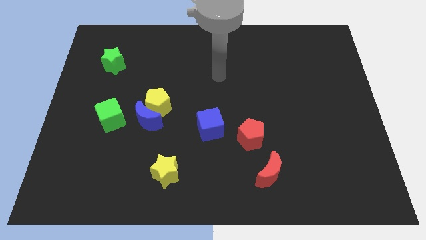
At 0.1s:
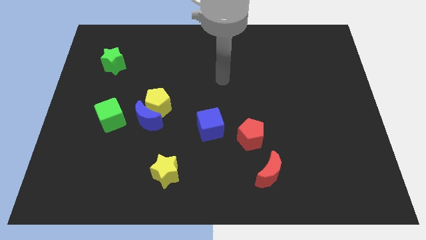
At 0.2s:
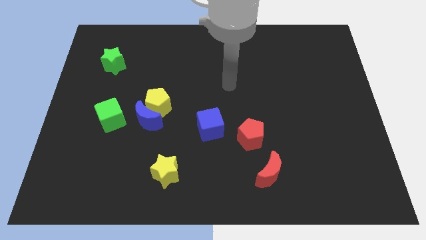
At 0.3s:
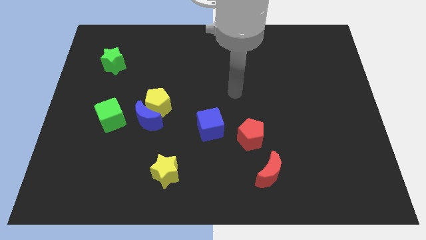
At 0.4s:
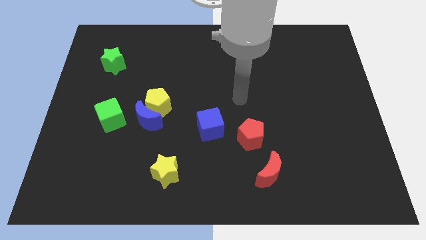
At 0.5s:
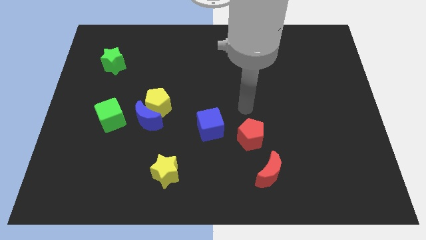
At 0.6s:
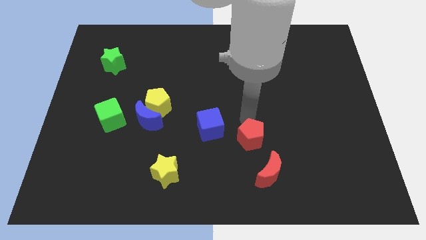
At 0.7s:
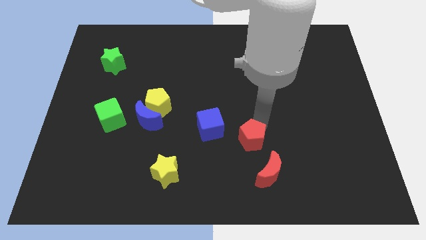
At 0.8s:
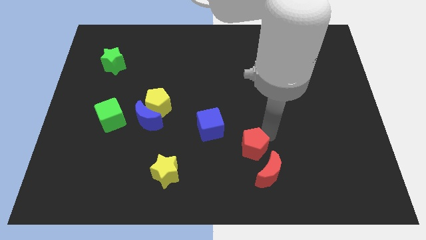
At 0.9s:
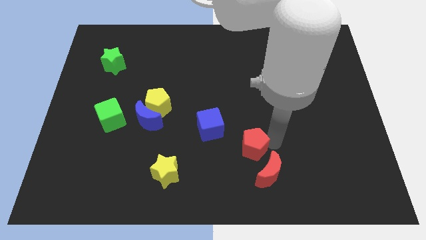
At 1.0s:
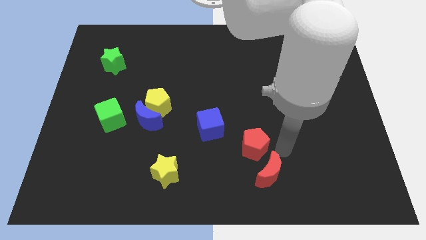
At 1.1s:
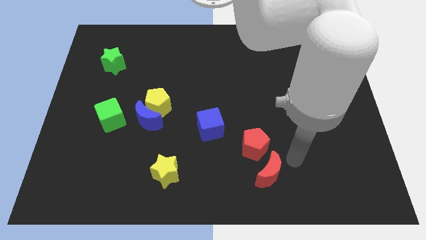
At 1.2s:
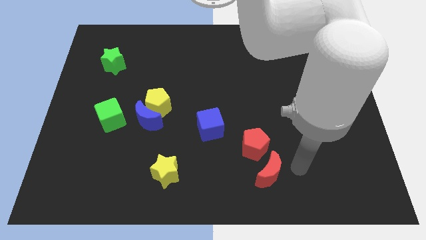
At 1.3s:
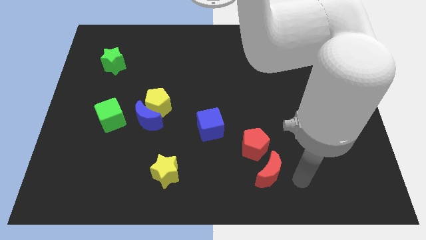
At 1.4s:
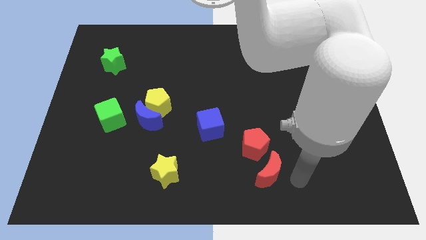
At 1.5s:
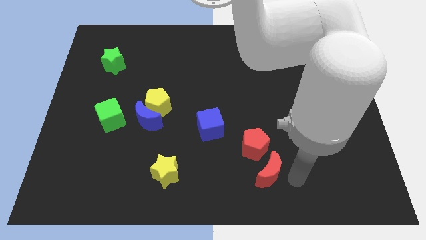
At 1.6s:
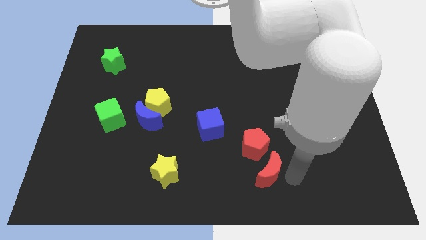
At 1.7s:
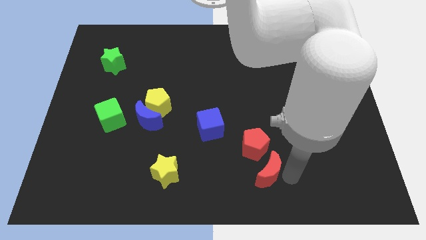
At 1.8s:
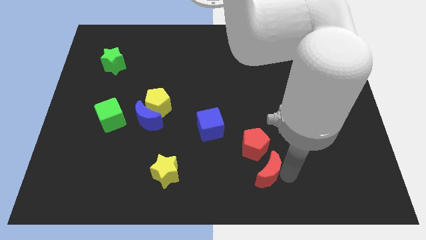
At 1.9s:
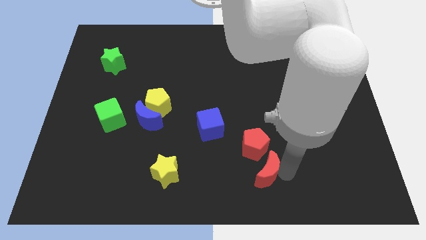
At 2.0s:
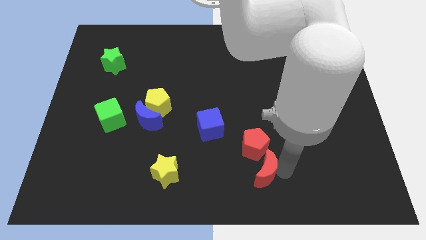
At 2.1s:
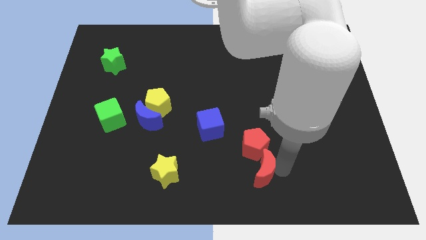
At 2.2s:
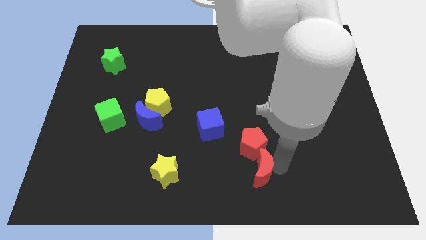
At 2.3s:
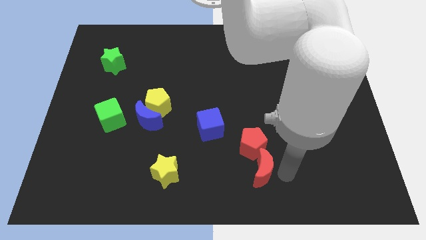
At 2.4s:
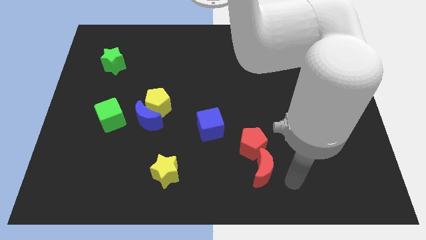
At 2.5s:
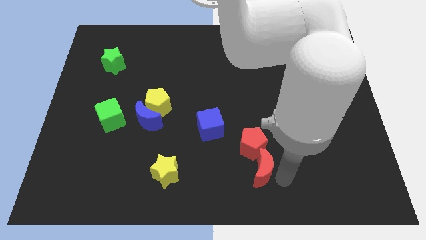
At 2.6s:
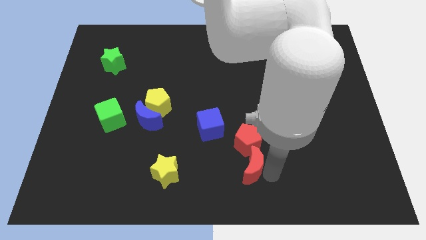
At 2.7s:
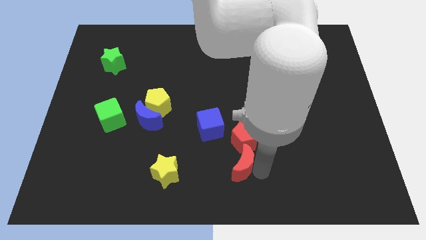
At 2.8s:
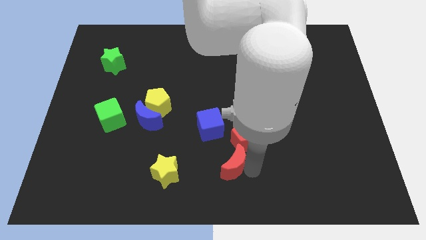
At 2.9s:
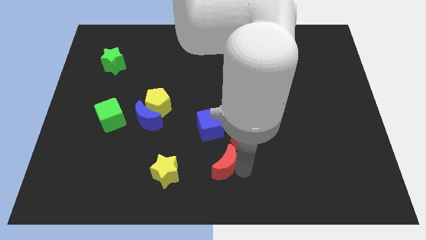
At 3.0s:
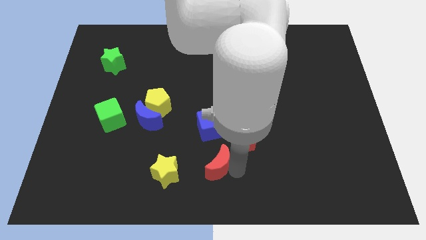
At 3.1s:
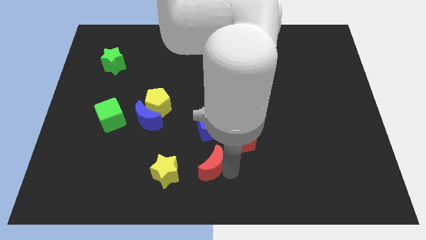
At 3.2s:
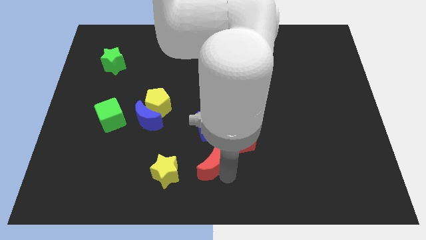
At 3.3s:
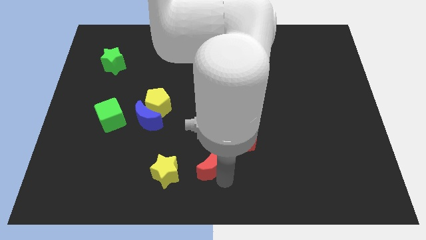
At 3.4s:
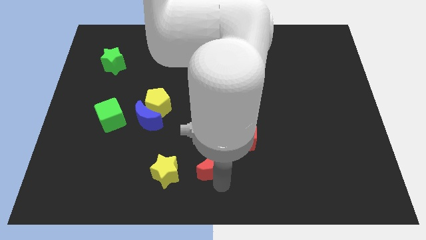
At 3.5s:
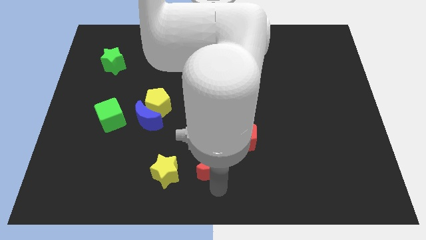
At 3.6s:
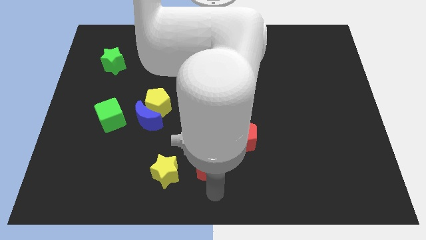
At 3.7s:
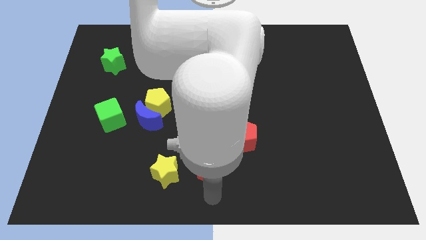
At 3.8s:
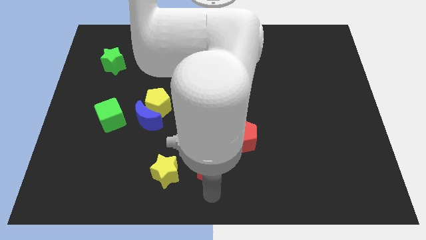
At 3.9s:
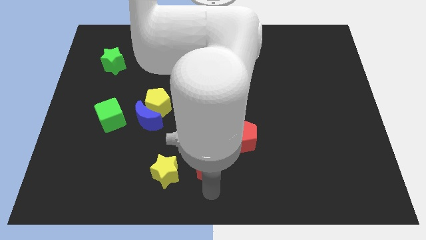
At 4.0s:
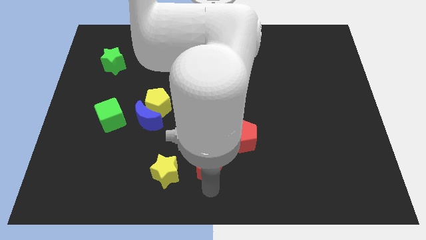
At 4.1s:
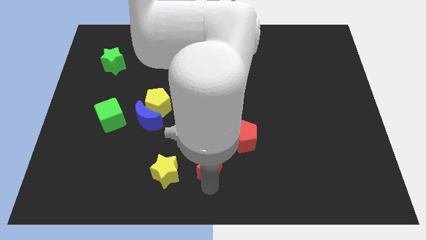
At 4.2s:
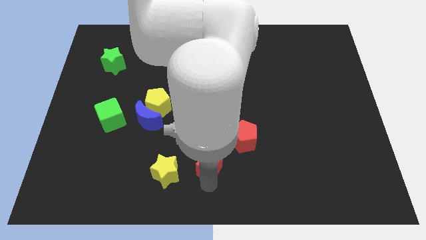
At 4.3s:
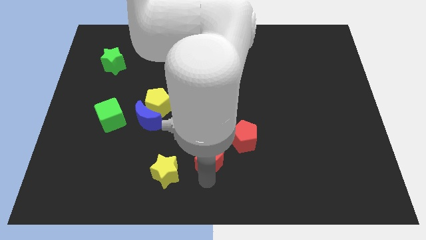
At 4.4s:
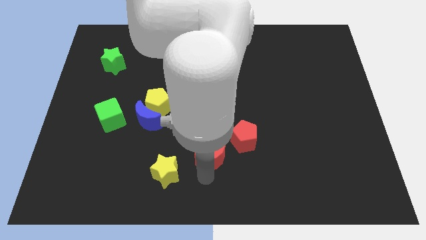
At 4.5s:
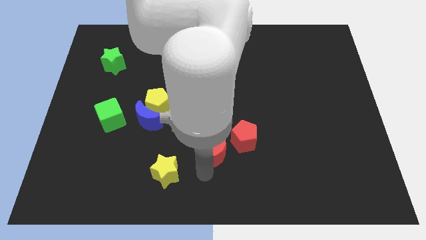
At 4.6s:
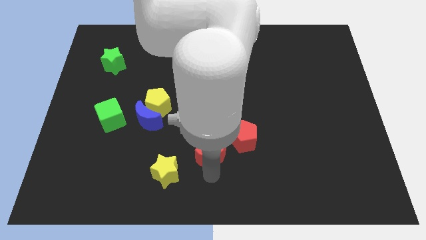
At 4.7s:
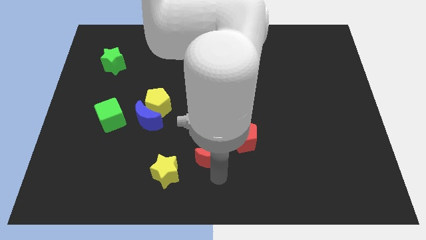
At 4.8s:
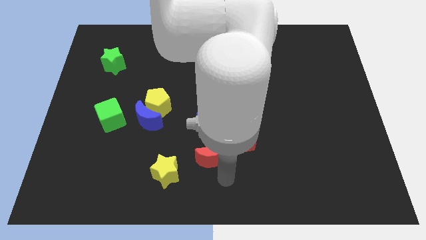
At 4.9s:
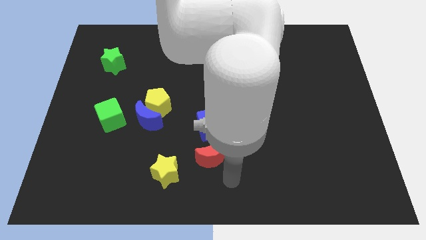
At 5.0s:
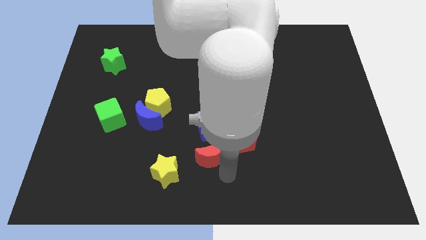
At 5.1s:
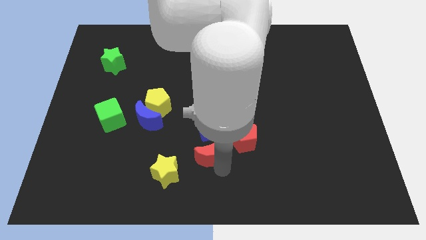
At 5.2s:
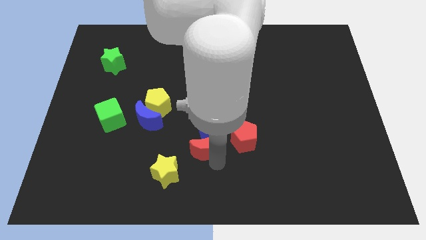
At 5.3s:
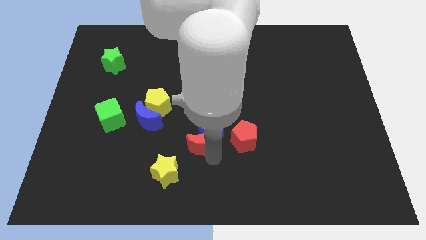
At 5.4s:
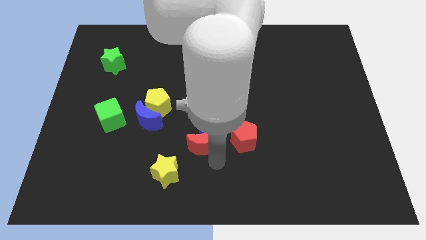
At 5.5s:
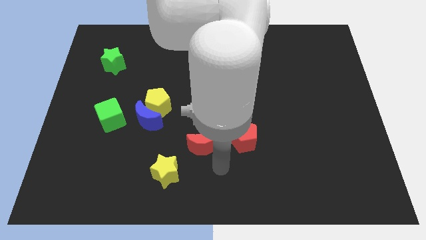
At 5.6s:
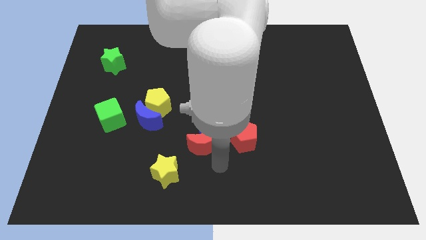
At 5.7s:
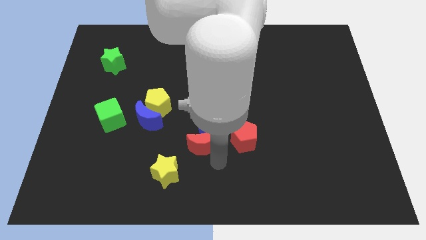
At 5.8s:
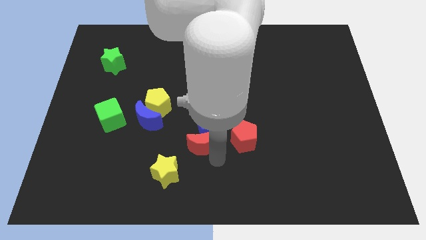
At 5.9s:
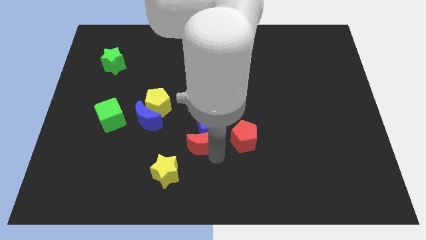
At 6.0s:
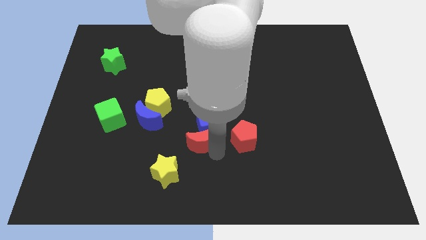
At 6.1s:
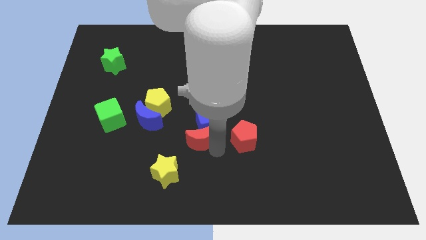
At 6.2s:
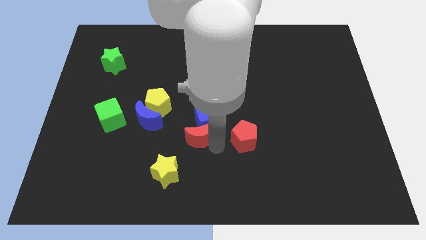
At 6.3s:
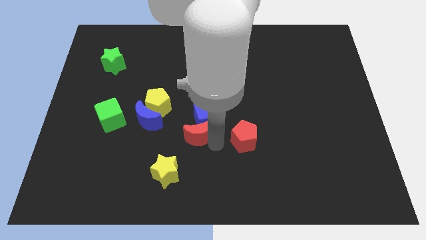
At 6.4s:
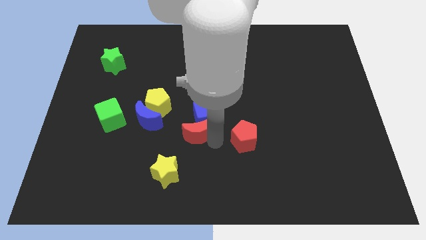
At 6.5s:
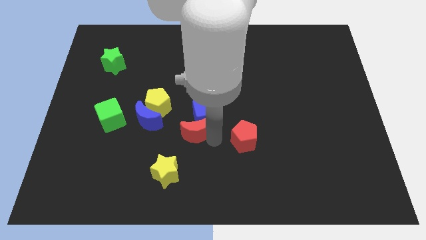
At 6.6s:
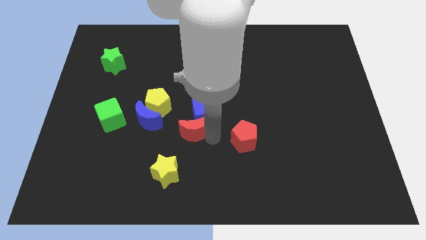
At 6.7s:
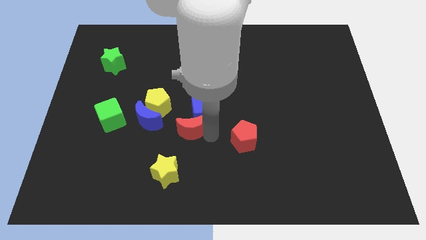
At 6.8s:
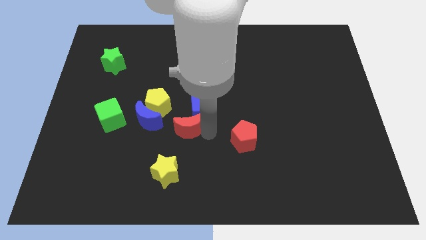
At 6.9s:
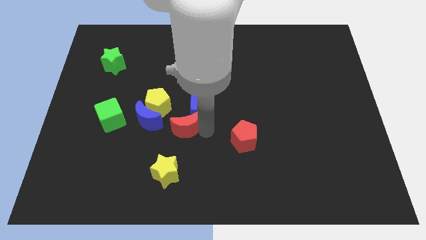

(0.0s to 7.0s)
slide the red moon upwards and to the left diagonally

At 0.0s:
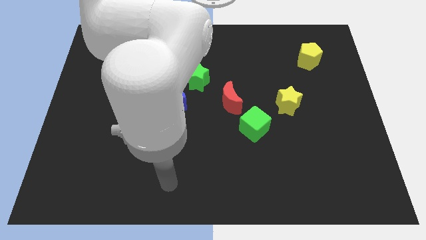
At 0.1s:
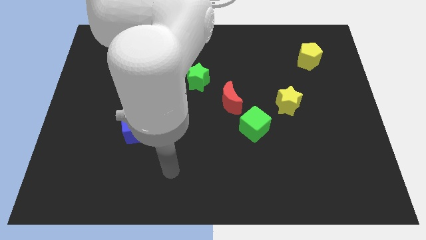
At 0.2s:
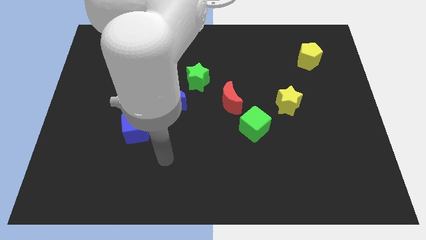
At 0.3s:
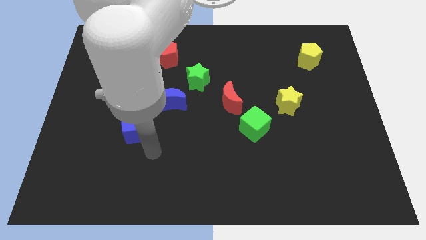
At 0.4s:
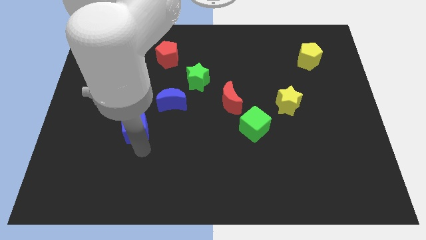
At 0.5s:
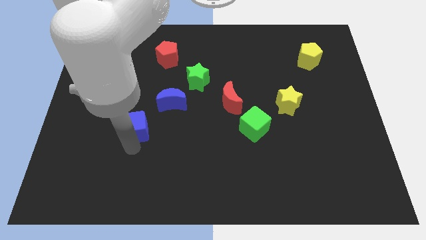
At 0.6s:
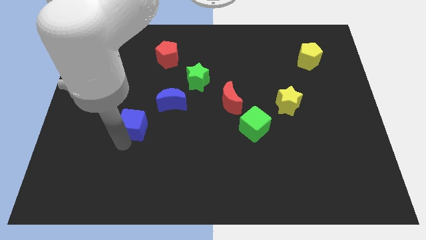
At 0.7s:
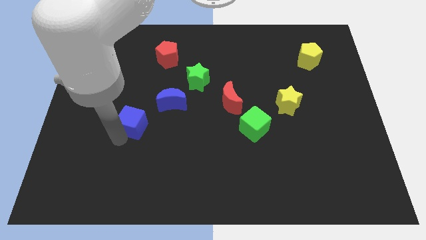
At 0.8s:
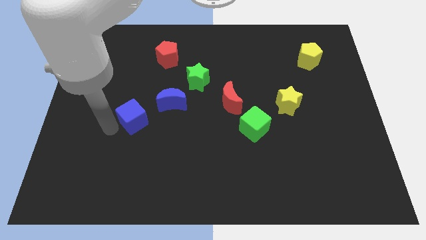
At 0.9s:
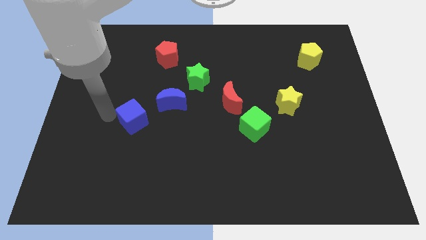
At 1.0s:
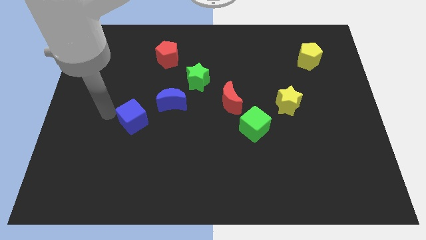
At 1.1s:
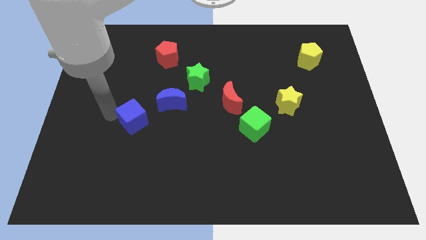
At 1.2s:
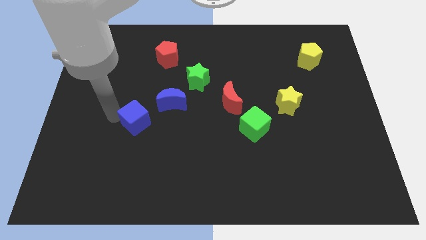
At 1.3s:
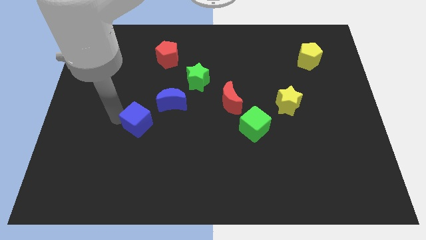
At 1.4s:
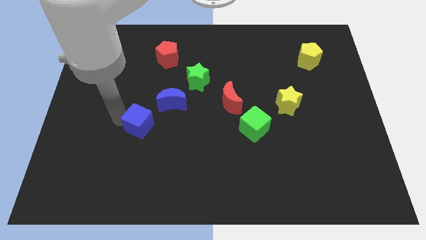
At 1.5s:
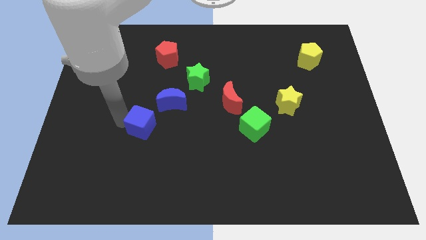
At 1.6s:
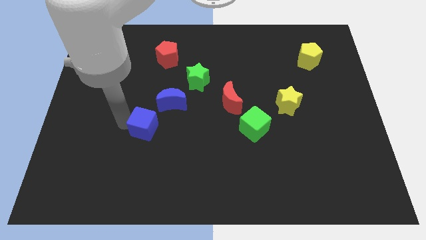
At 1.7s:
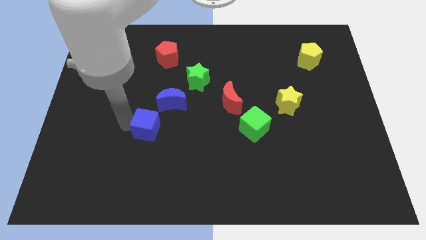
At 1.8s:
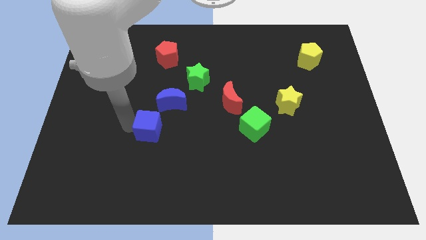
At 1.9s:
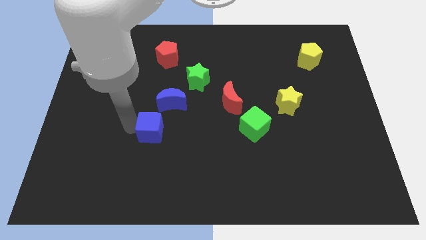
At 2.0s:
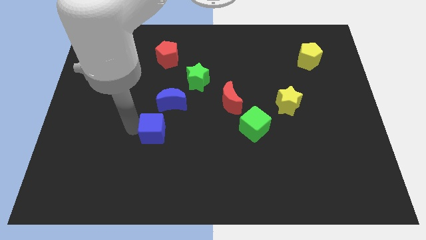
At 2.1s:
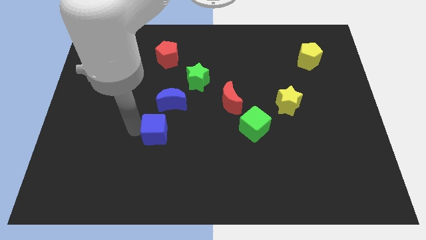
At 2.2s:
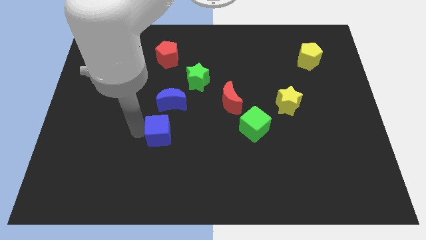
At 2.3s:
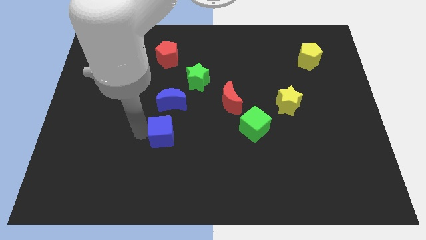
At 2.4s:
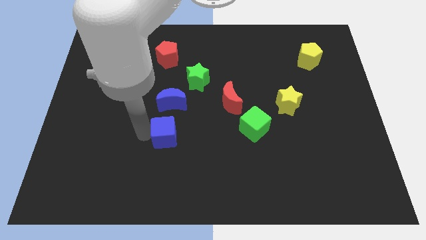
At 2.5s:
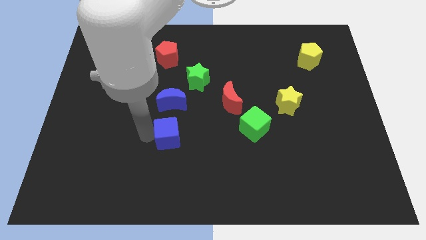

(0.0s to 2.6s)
slide the blue cube somewhat right
